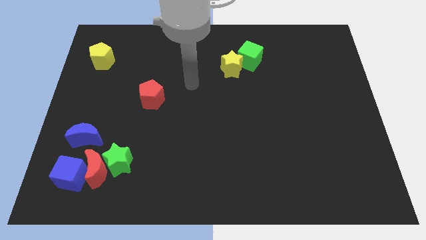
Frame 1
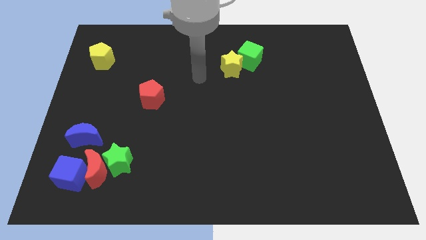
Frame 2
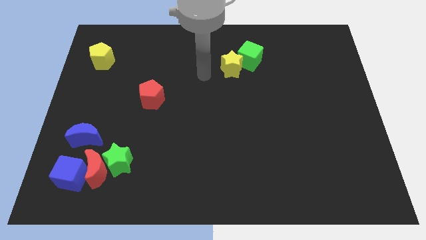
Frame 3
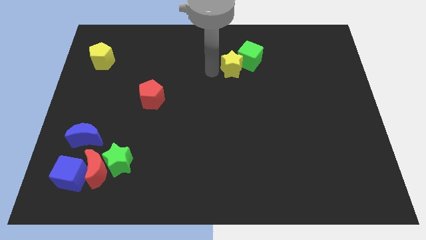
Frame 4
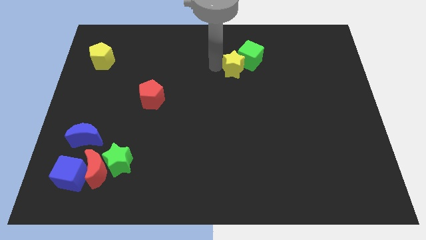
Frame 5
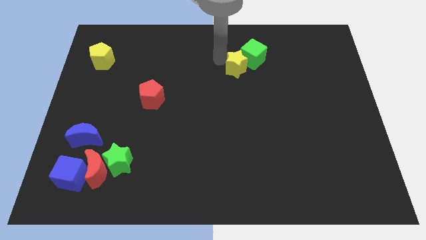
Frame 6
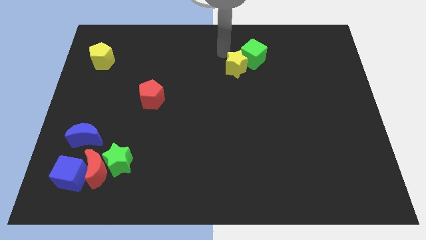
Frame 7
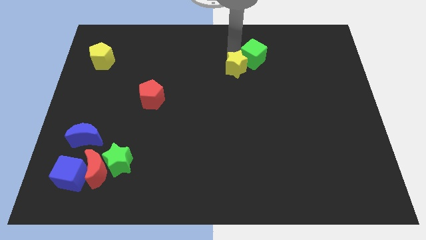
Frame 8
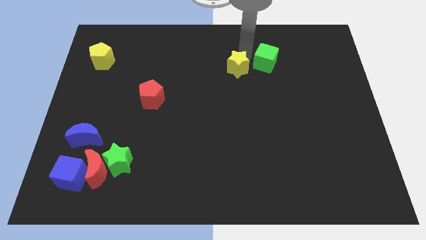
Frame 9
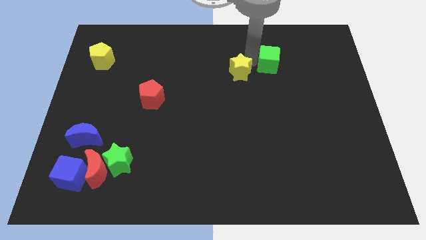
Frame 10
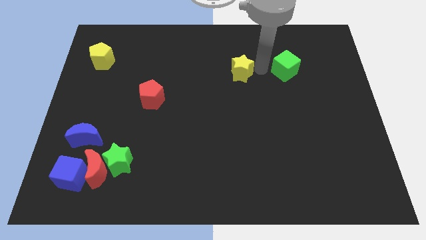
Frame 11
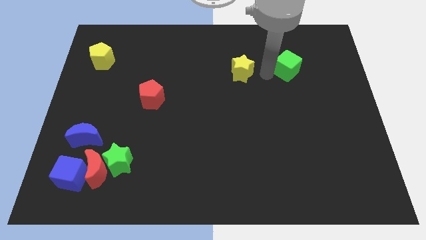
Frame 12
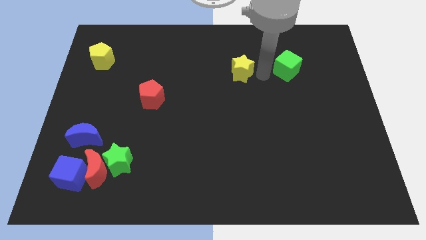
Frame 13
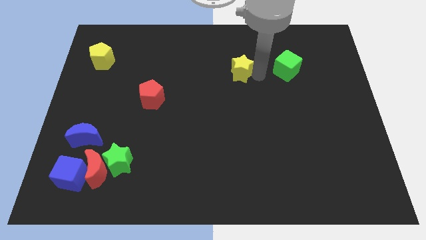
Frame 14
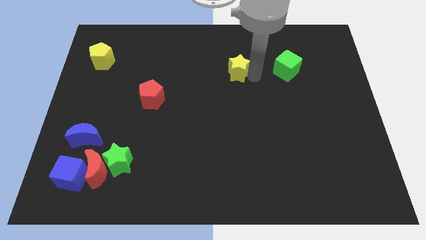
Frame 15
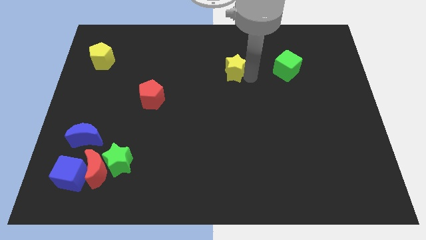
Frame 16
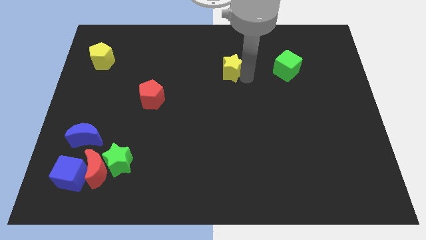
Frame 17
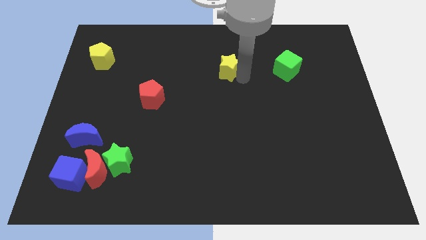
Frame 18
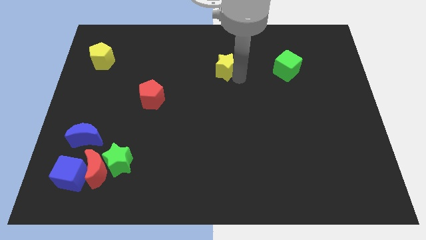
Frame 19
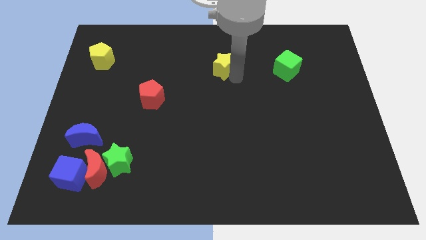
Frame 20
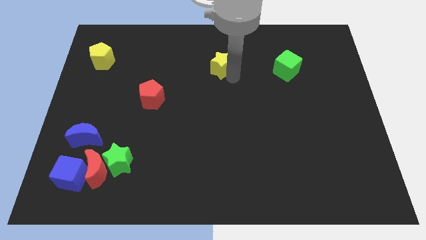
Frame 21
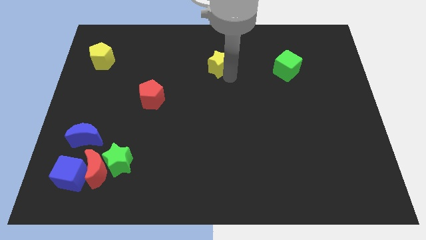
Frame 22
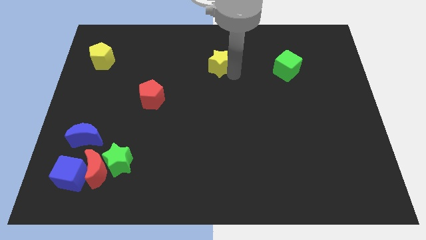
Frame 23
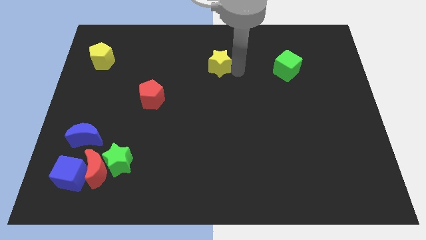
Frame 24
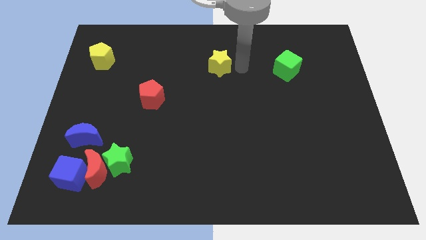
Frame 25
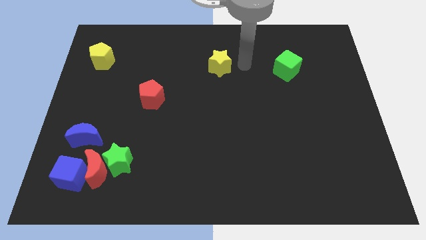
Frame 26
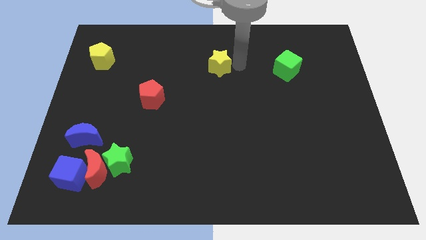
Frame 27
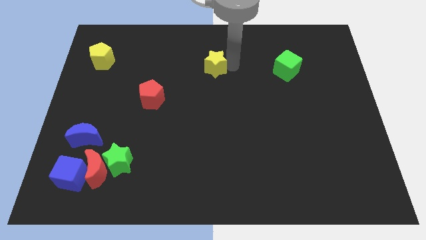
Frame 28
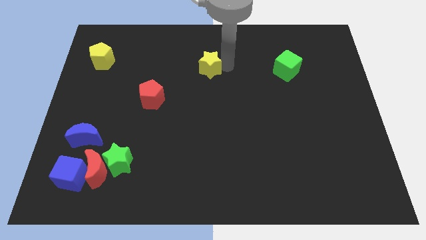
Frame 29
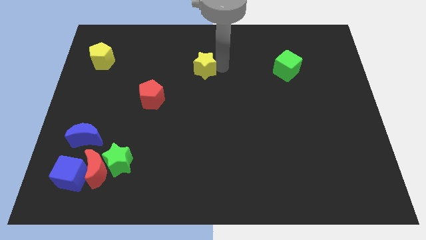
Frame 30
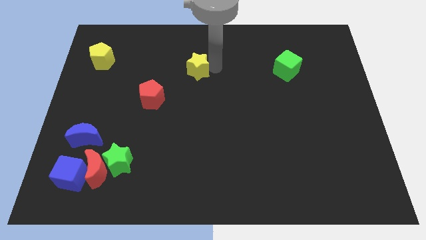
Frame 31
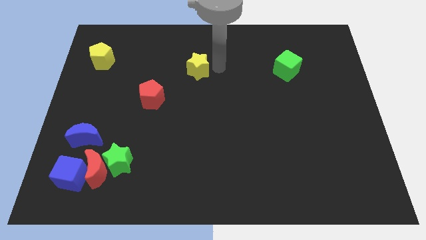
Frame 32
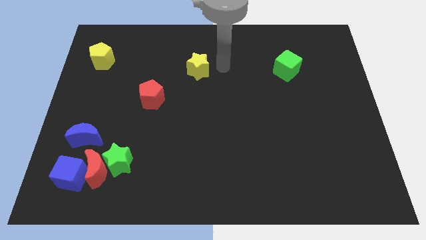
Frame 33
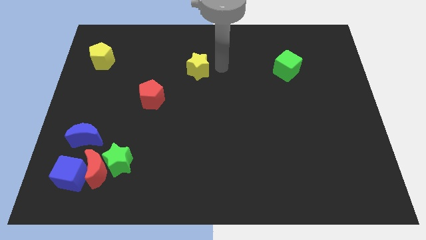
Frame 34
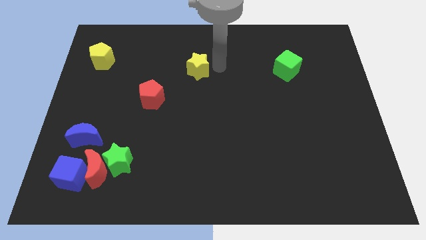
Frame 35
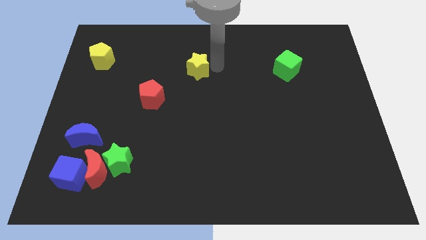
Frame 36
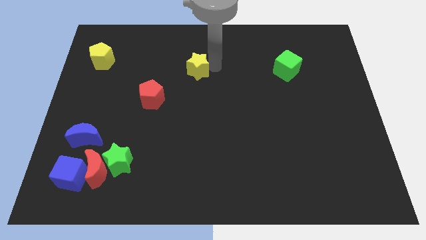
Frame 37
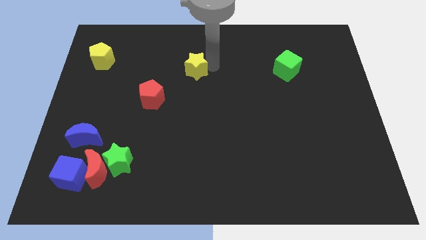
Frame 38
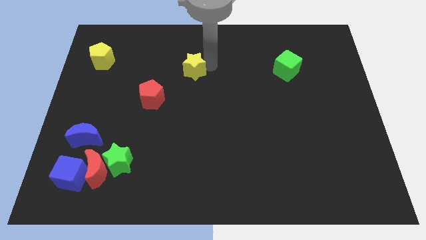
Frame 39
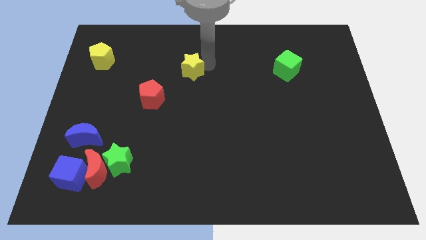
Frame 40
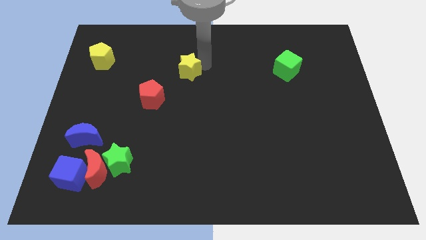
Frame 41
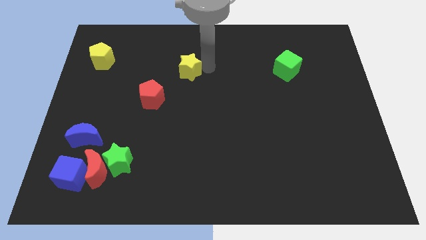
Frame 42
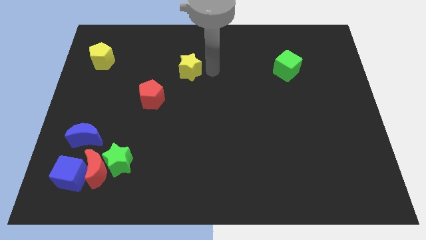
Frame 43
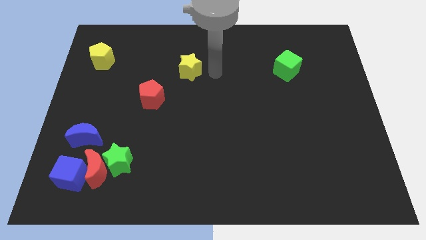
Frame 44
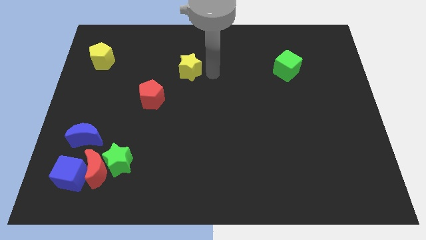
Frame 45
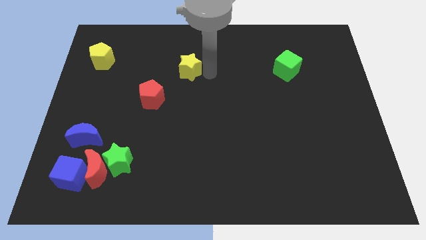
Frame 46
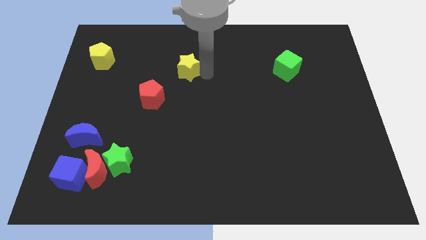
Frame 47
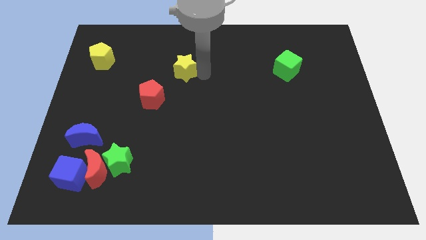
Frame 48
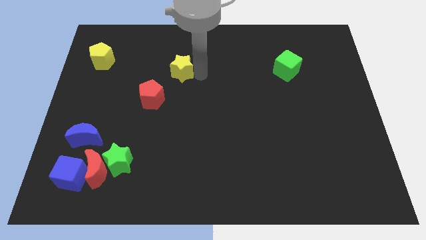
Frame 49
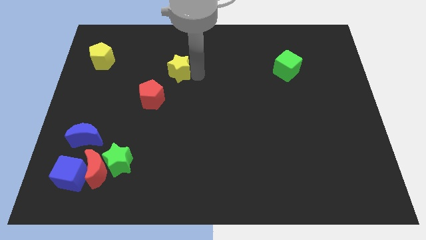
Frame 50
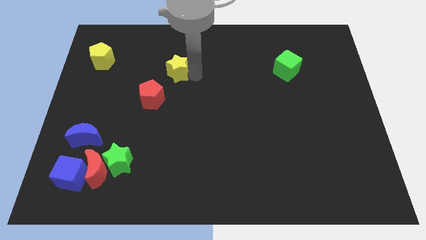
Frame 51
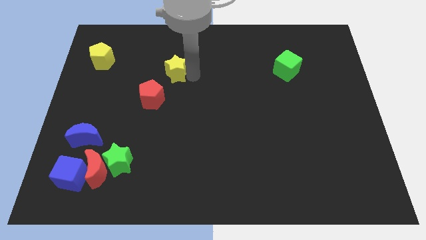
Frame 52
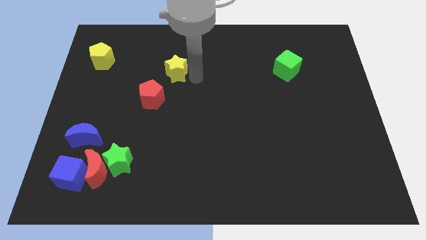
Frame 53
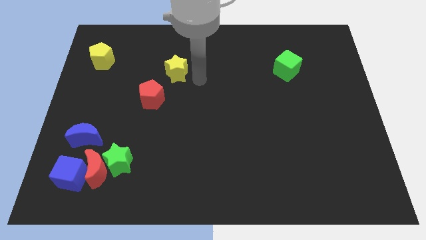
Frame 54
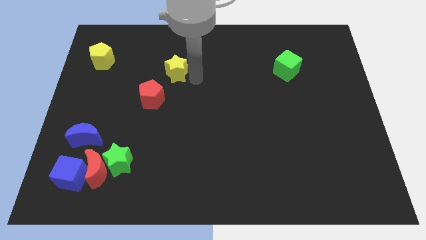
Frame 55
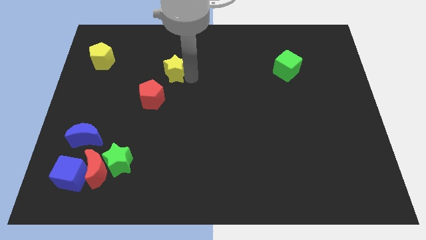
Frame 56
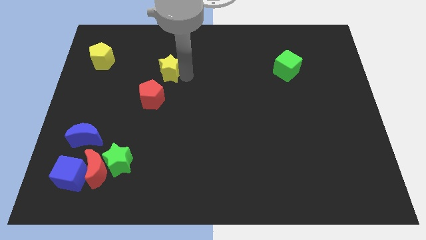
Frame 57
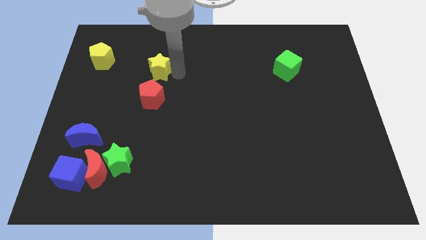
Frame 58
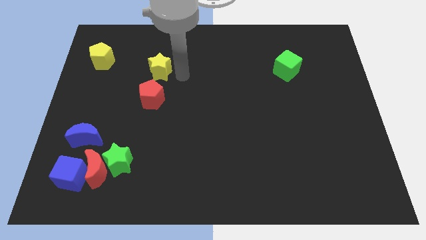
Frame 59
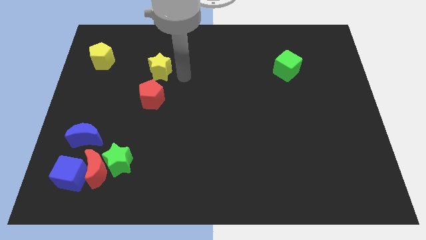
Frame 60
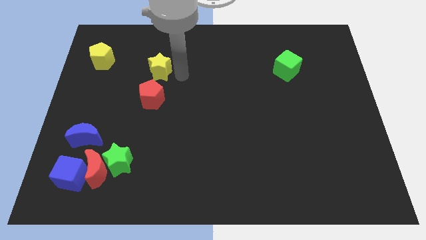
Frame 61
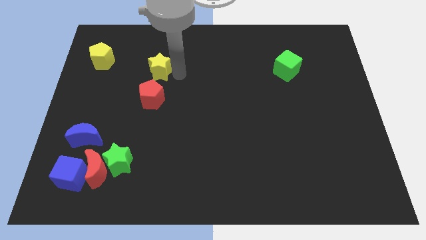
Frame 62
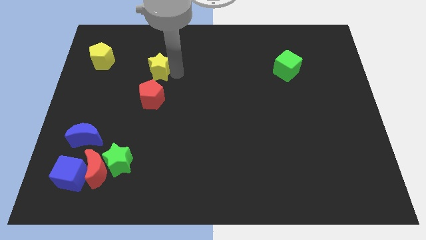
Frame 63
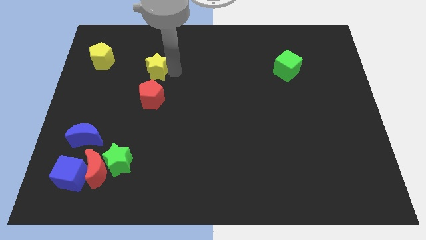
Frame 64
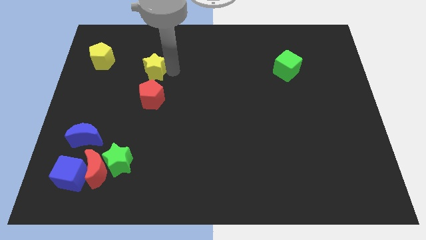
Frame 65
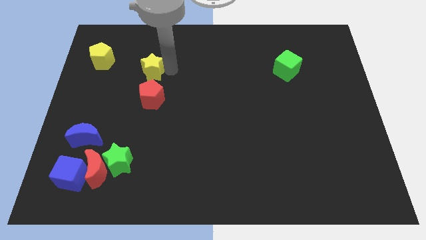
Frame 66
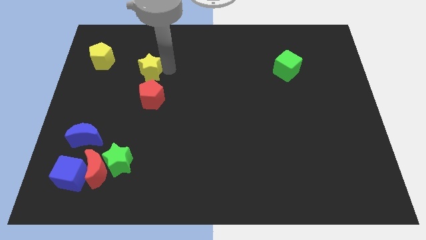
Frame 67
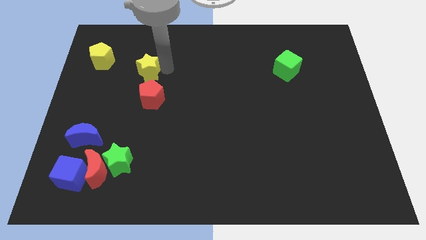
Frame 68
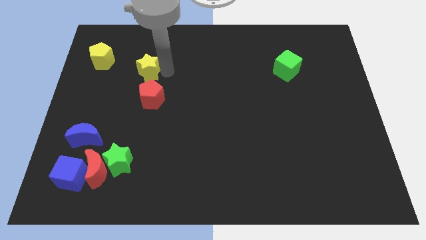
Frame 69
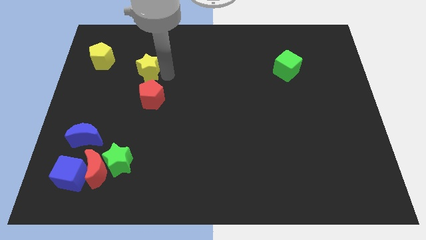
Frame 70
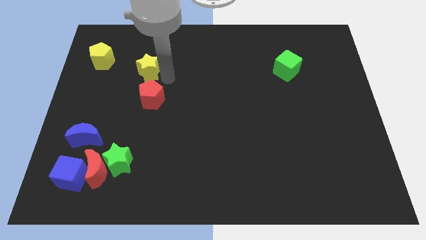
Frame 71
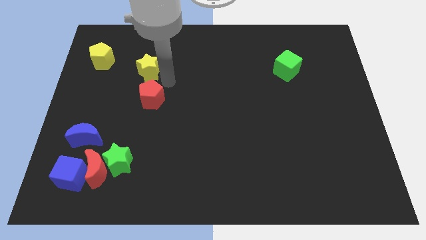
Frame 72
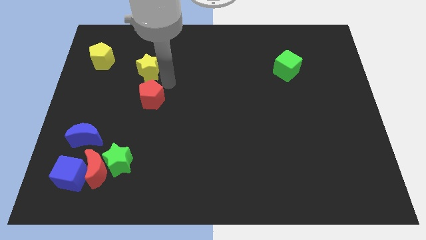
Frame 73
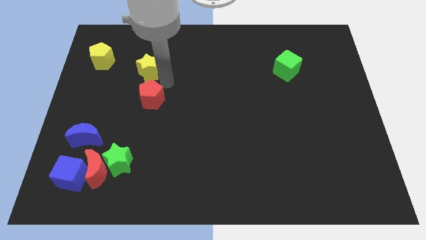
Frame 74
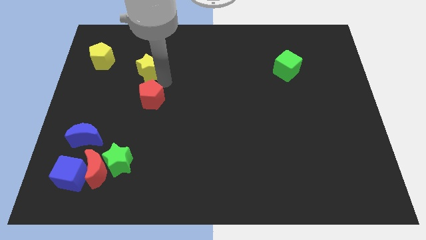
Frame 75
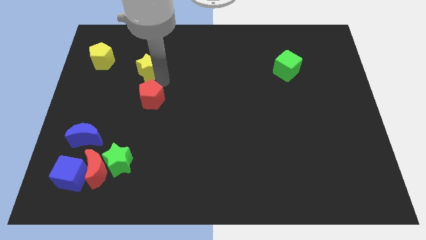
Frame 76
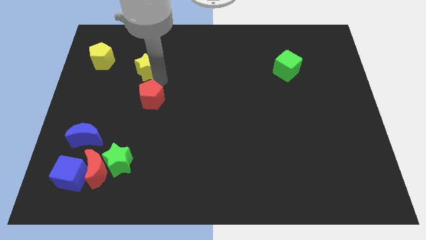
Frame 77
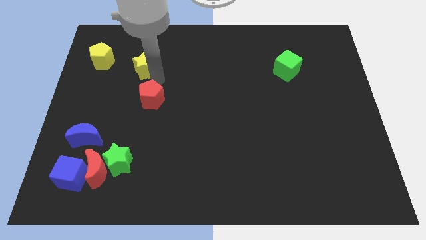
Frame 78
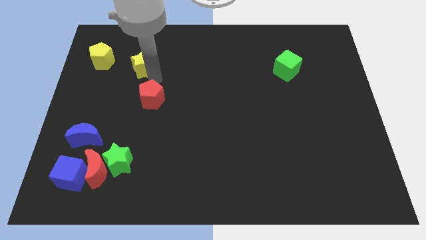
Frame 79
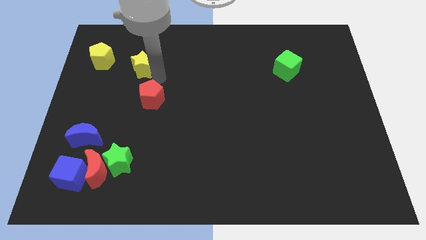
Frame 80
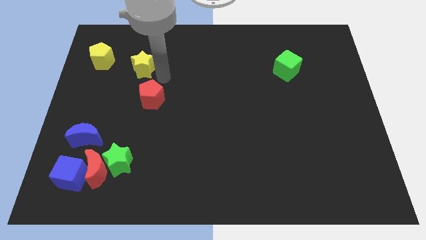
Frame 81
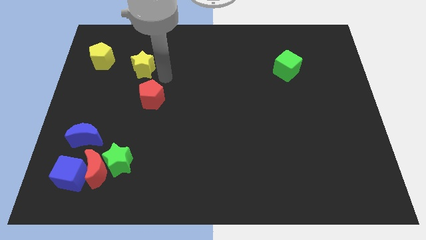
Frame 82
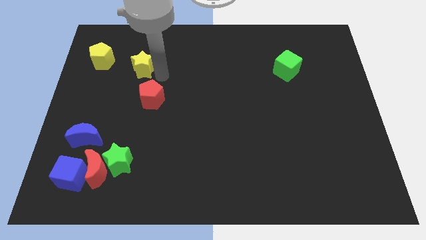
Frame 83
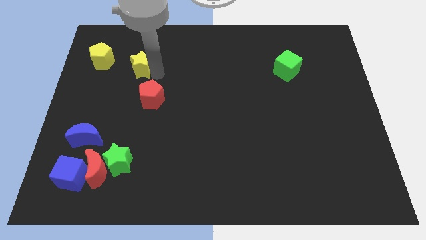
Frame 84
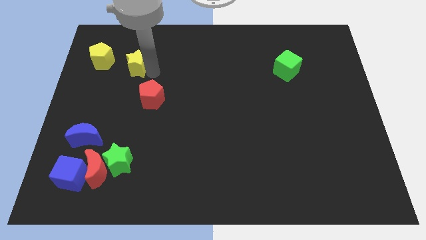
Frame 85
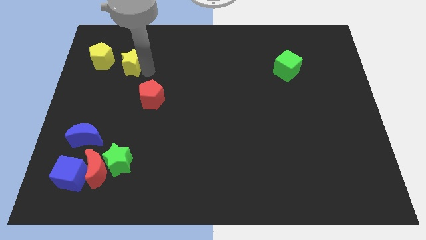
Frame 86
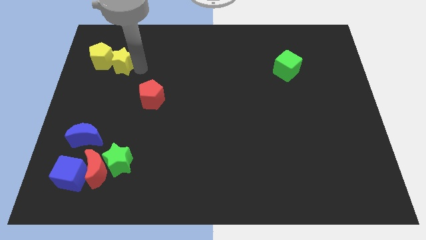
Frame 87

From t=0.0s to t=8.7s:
move the yellow star to the yellow pentagon
